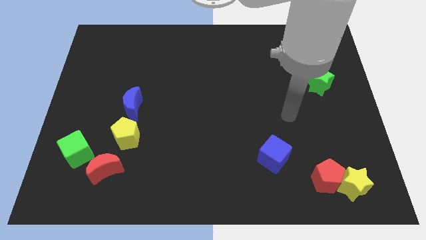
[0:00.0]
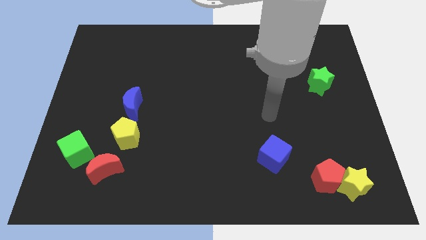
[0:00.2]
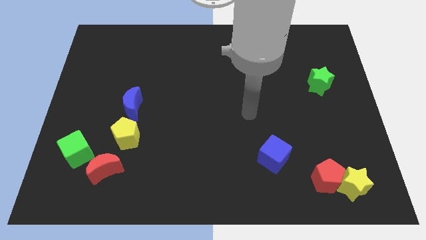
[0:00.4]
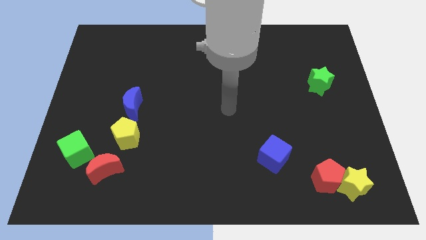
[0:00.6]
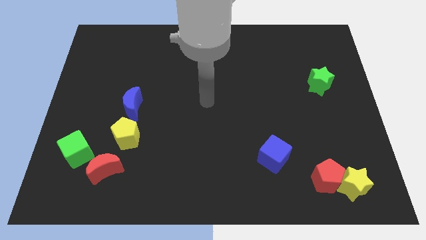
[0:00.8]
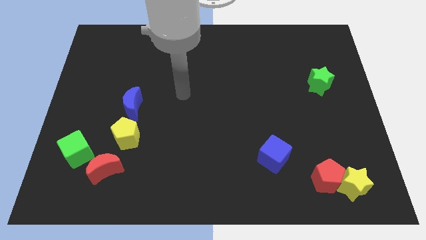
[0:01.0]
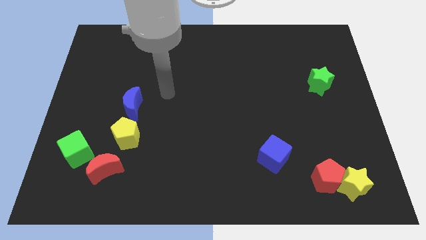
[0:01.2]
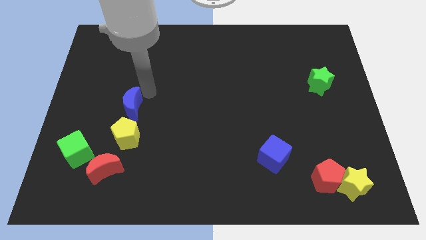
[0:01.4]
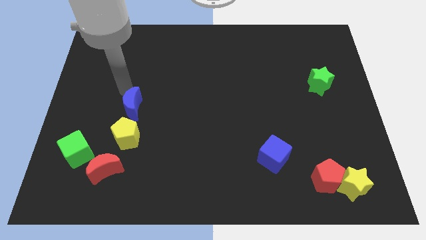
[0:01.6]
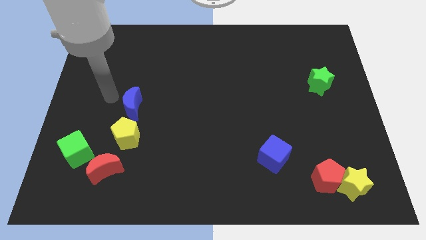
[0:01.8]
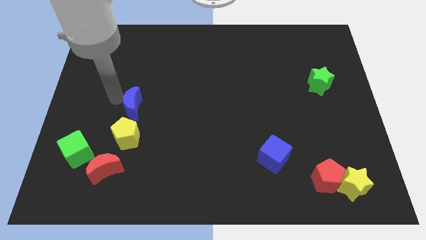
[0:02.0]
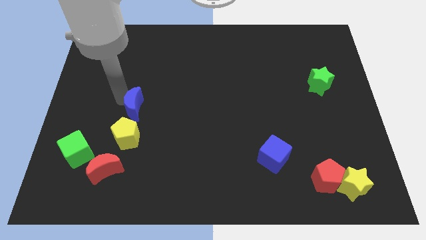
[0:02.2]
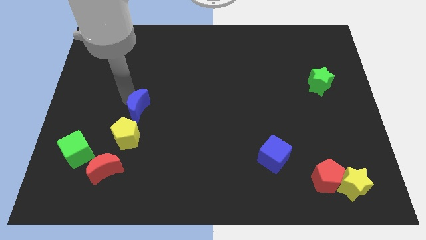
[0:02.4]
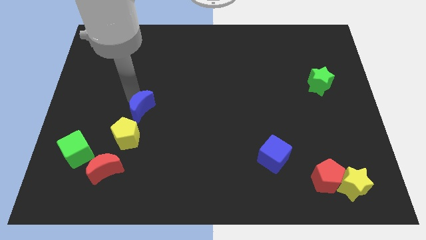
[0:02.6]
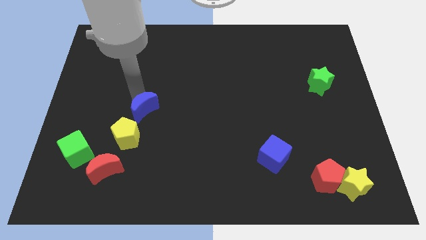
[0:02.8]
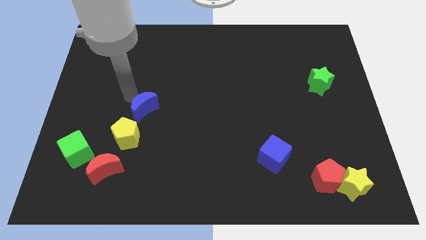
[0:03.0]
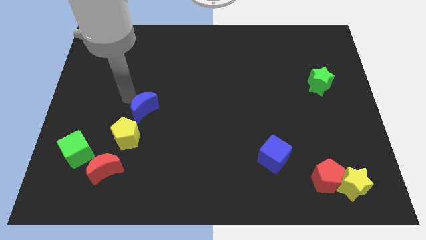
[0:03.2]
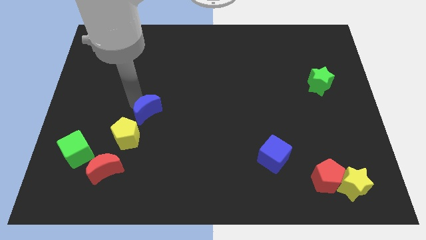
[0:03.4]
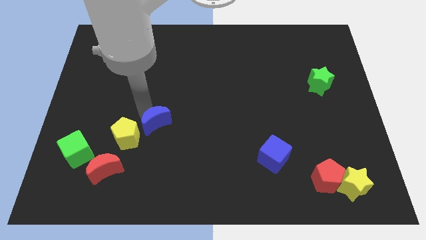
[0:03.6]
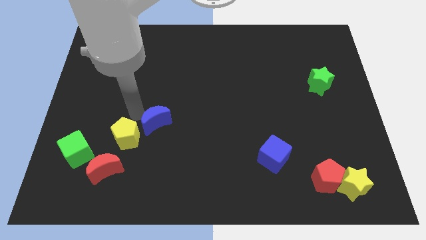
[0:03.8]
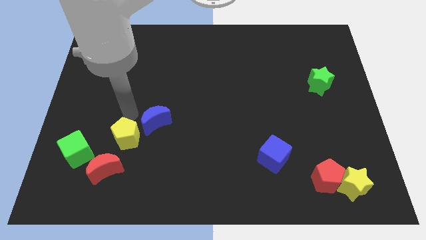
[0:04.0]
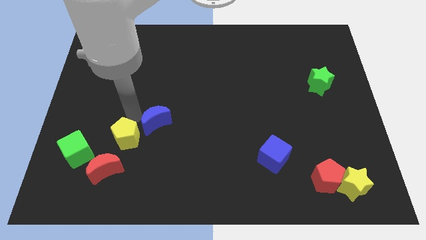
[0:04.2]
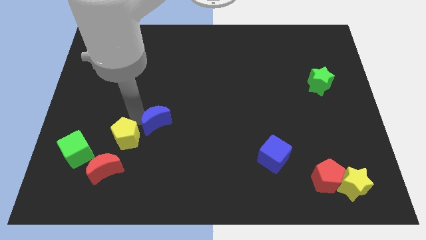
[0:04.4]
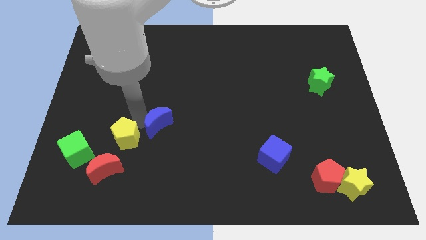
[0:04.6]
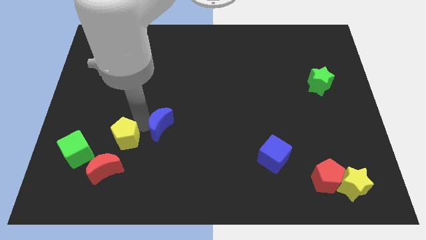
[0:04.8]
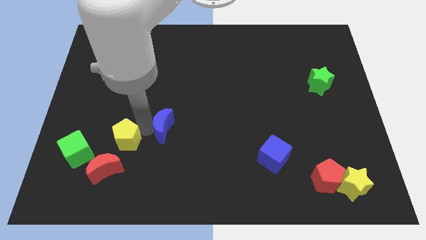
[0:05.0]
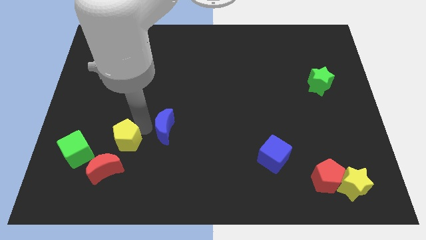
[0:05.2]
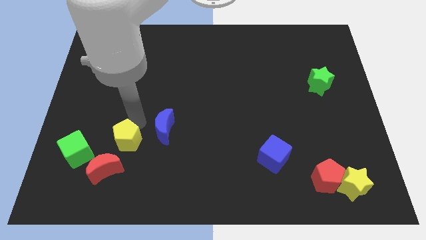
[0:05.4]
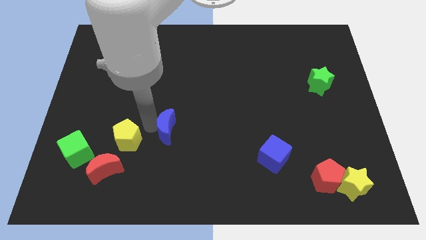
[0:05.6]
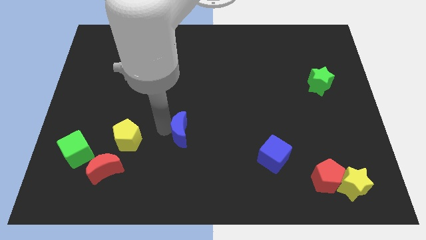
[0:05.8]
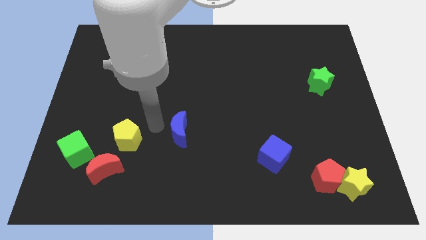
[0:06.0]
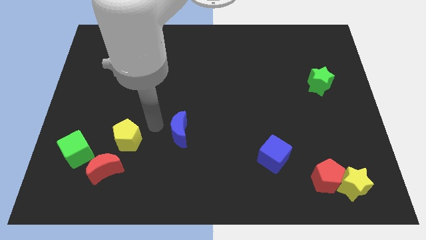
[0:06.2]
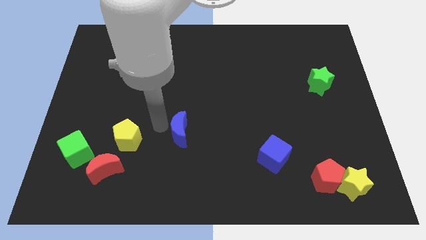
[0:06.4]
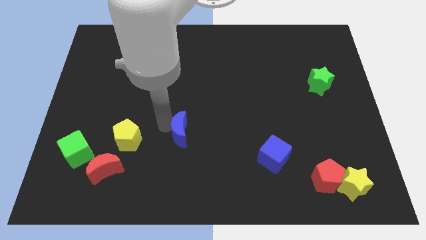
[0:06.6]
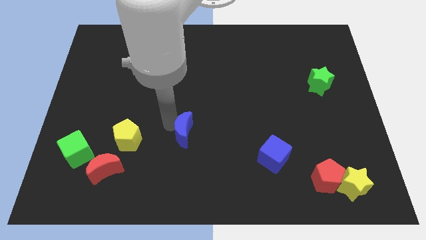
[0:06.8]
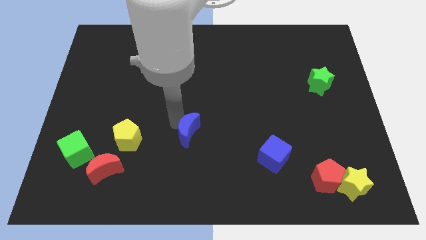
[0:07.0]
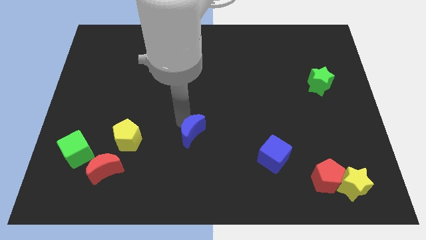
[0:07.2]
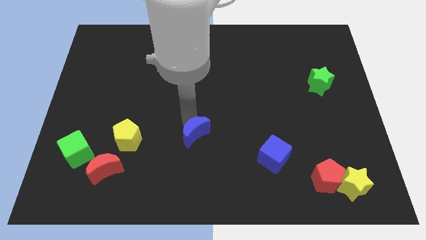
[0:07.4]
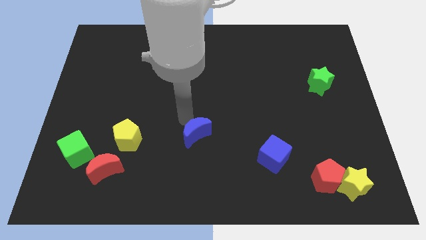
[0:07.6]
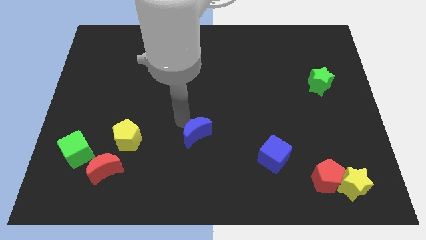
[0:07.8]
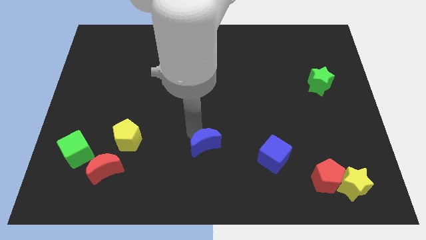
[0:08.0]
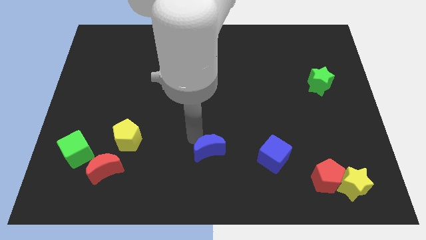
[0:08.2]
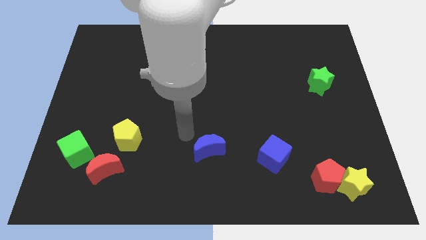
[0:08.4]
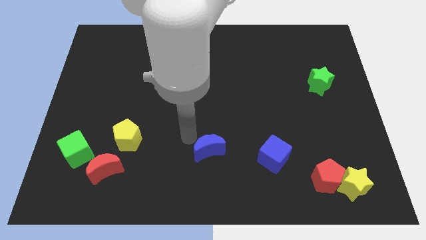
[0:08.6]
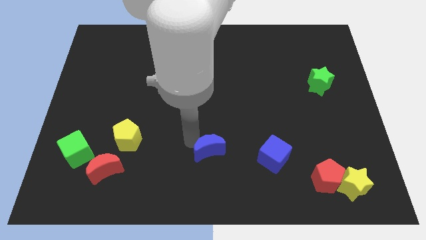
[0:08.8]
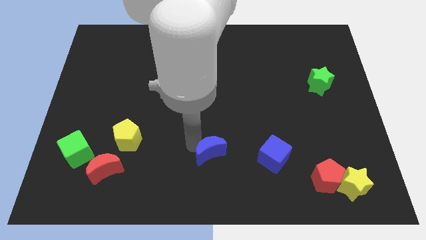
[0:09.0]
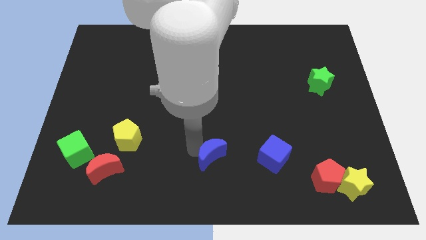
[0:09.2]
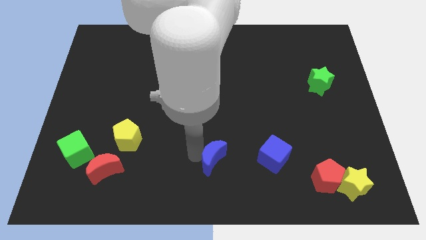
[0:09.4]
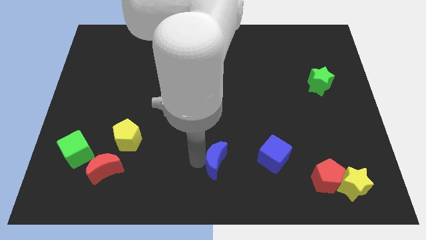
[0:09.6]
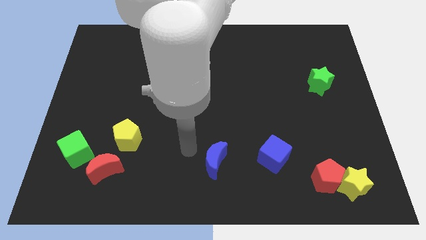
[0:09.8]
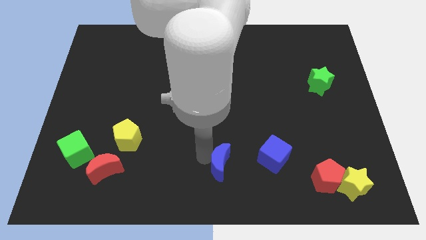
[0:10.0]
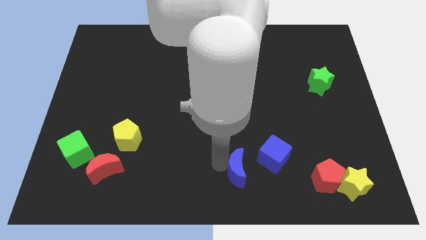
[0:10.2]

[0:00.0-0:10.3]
move the blue moon to the bottom left side of the blue cube
